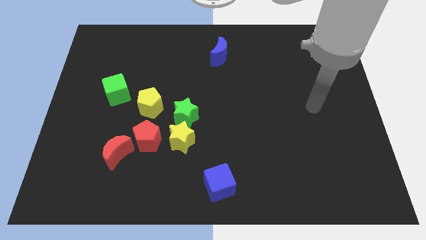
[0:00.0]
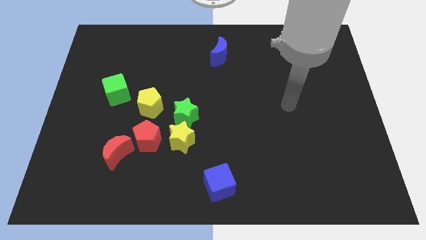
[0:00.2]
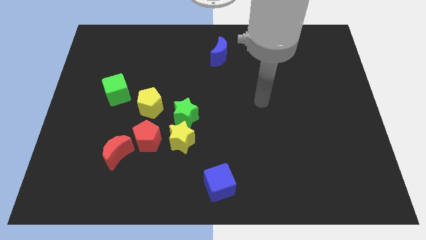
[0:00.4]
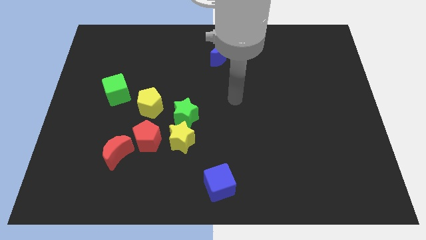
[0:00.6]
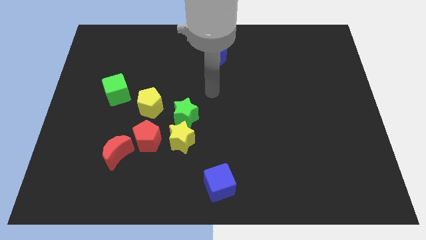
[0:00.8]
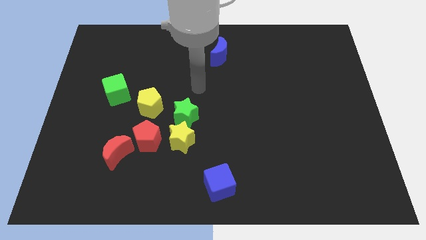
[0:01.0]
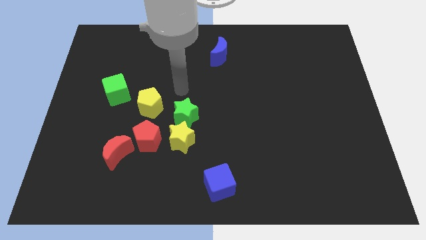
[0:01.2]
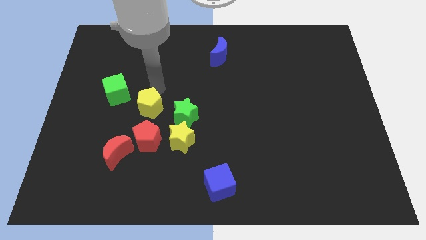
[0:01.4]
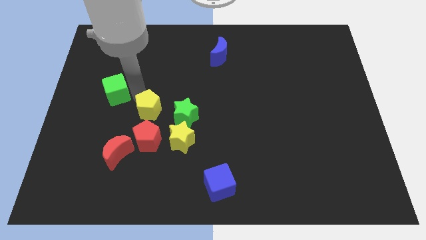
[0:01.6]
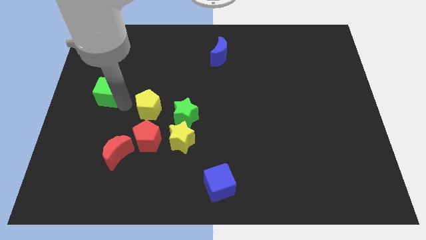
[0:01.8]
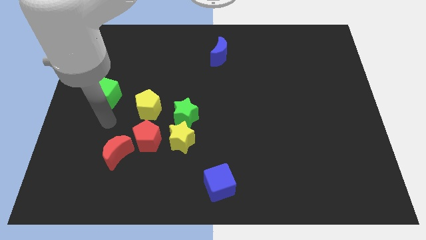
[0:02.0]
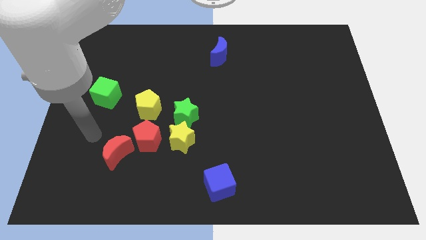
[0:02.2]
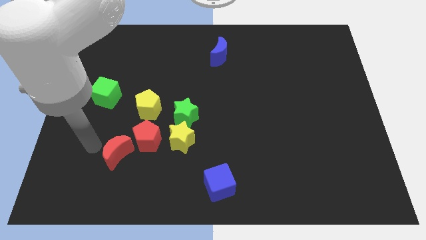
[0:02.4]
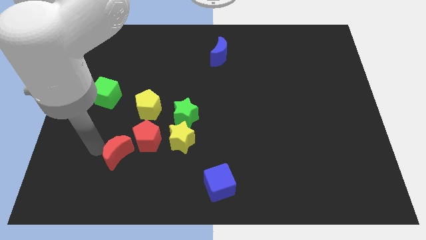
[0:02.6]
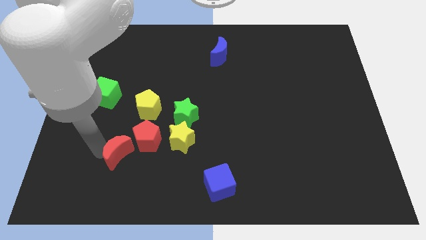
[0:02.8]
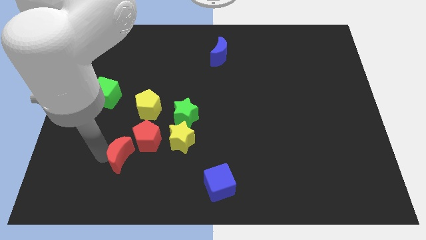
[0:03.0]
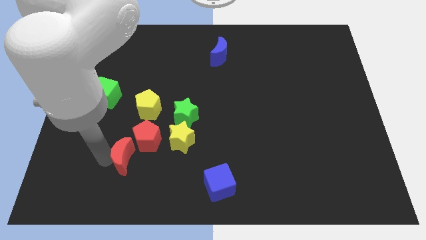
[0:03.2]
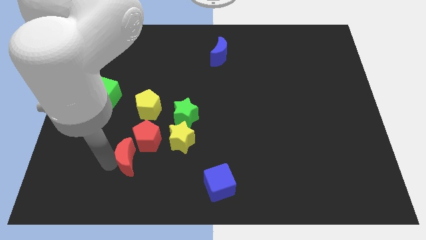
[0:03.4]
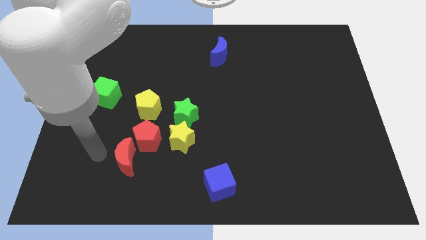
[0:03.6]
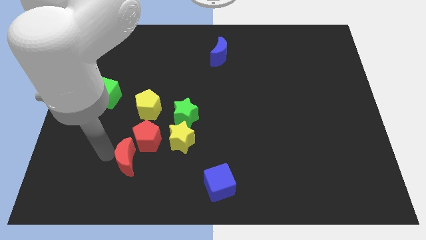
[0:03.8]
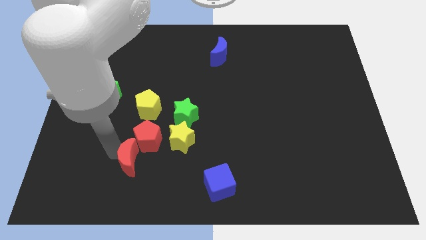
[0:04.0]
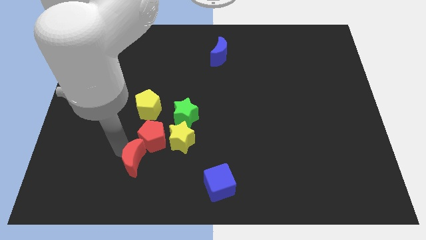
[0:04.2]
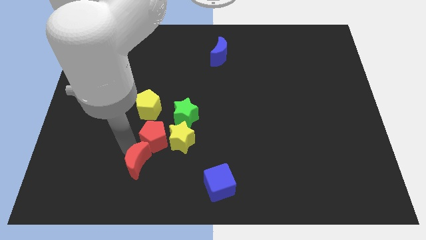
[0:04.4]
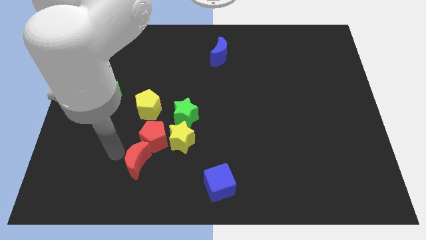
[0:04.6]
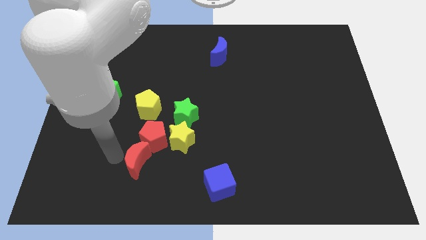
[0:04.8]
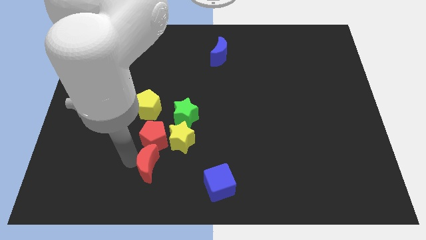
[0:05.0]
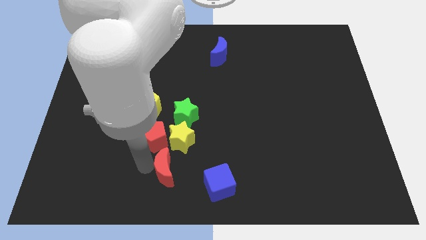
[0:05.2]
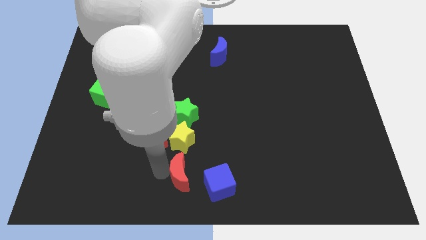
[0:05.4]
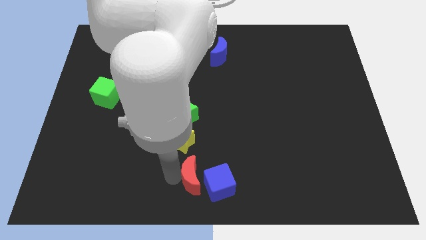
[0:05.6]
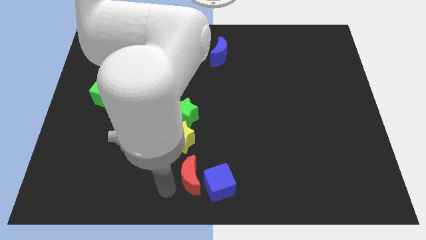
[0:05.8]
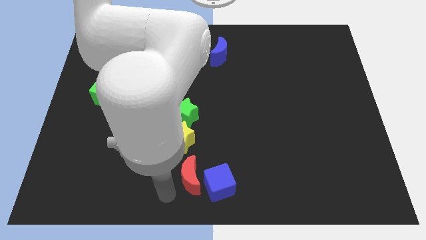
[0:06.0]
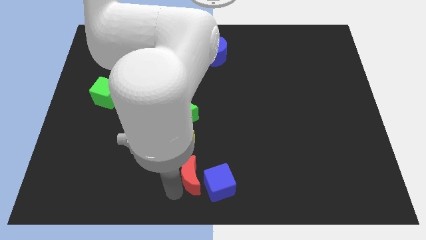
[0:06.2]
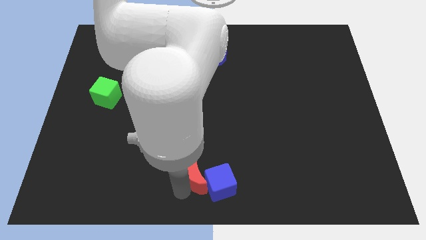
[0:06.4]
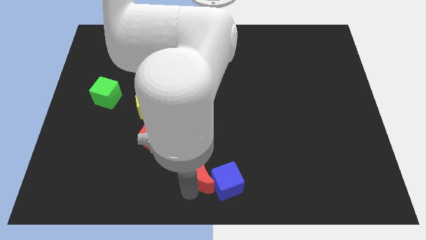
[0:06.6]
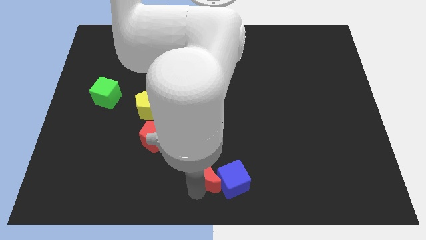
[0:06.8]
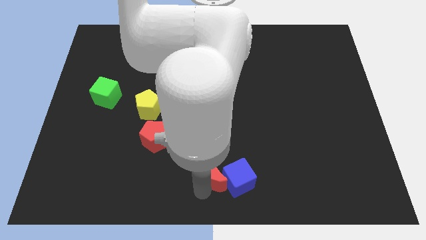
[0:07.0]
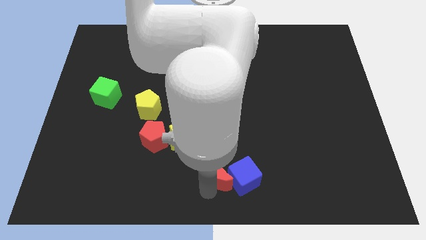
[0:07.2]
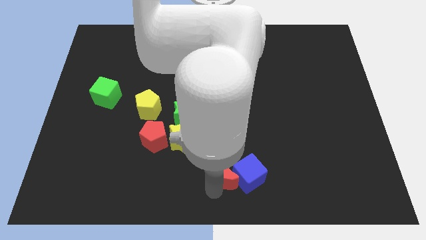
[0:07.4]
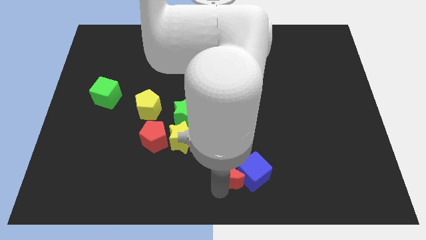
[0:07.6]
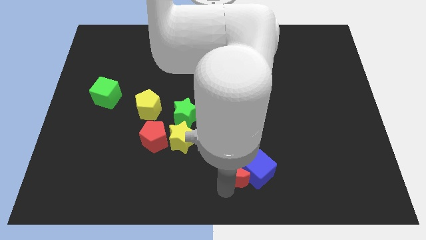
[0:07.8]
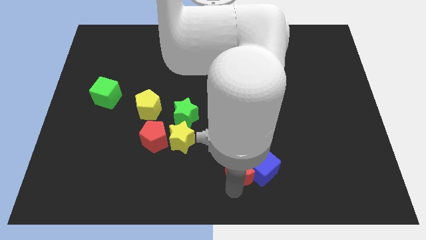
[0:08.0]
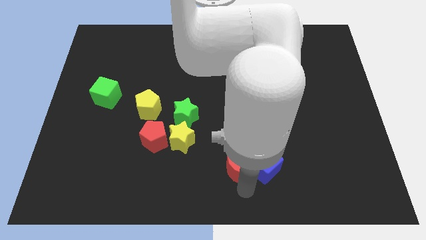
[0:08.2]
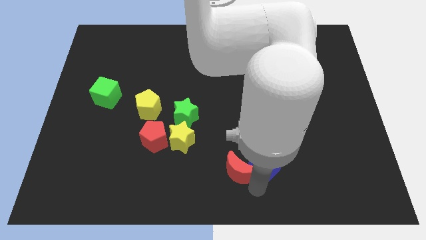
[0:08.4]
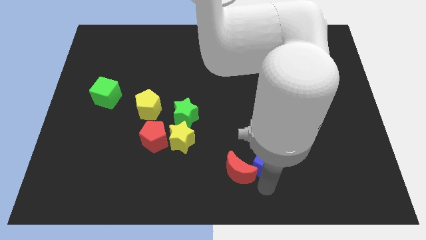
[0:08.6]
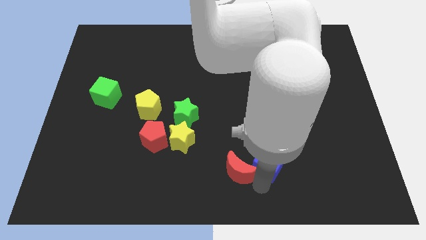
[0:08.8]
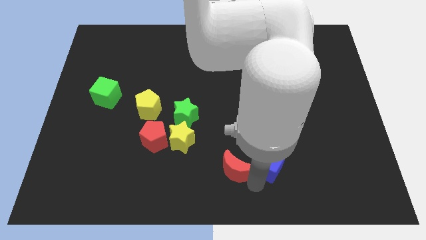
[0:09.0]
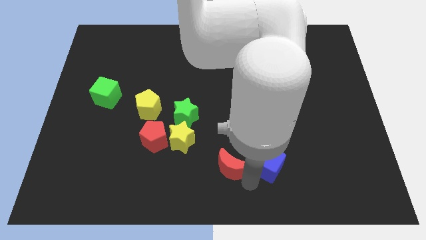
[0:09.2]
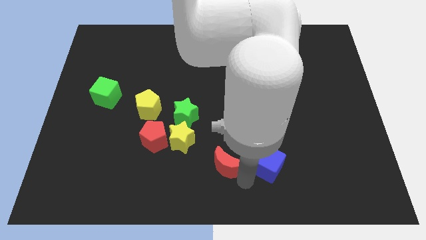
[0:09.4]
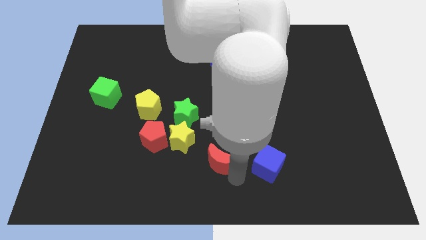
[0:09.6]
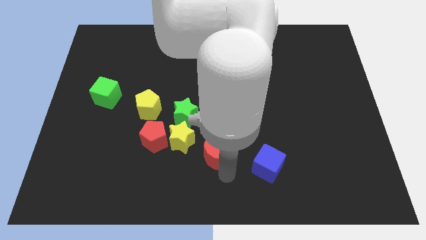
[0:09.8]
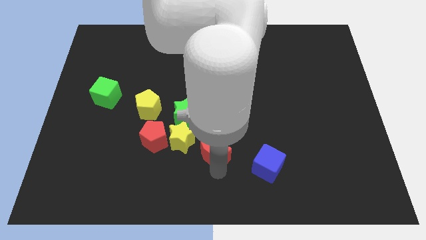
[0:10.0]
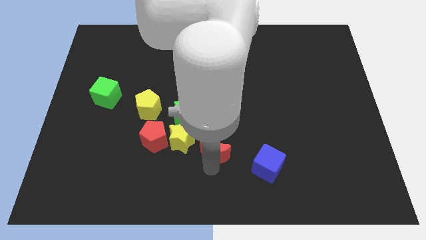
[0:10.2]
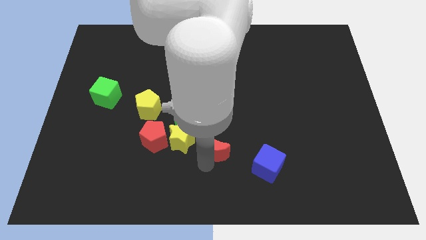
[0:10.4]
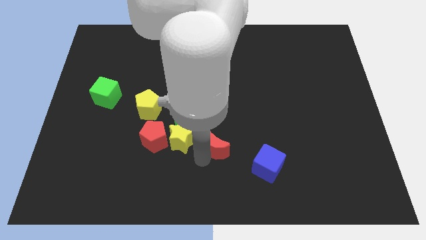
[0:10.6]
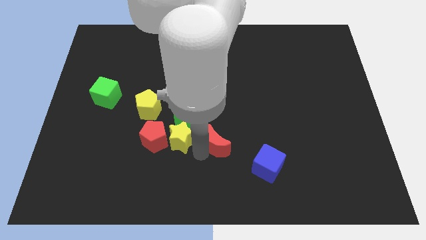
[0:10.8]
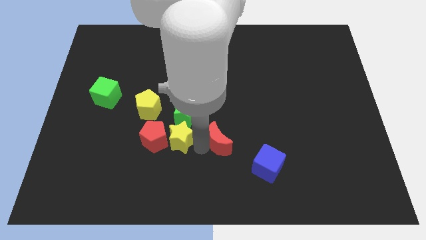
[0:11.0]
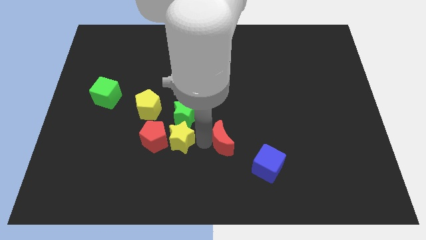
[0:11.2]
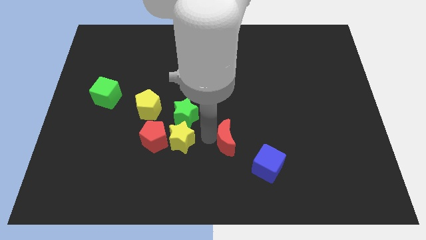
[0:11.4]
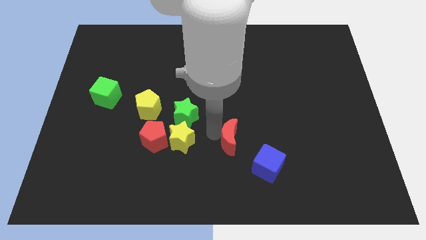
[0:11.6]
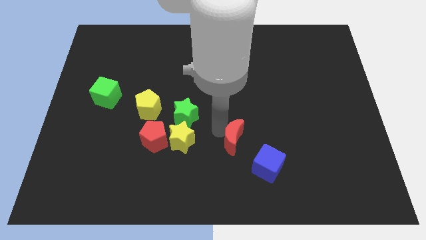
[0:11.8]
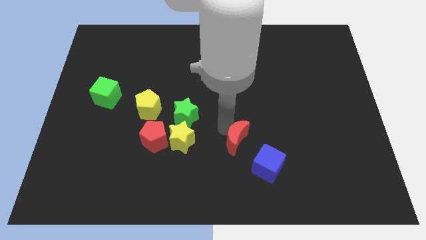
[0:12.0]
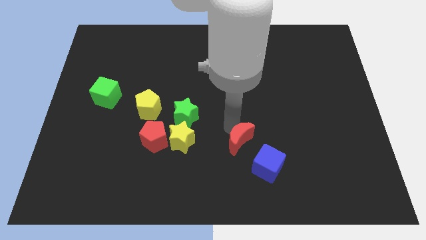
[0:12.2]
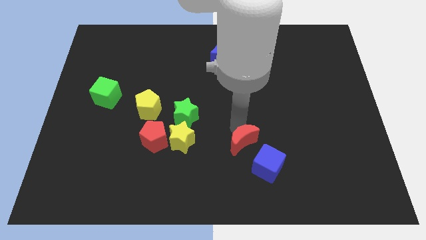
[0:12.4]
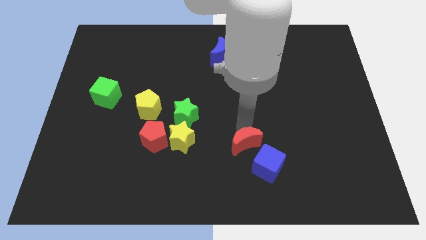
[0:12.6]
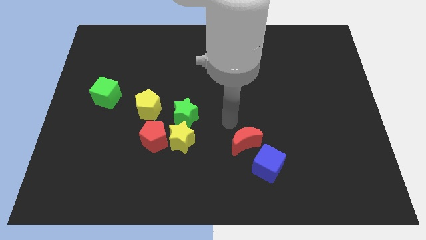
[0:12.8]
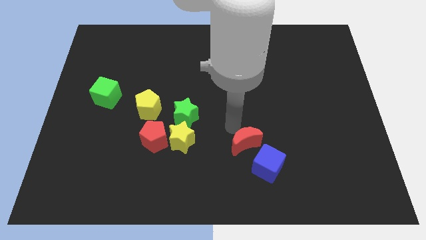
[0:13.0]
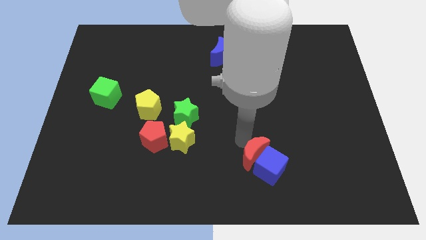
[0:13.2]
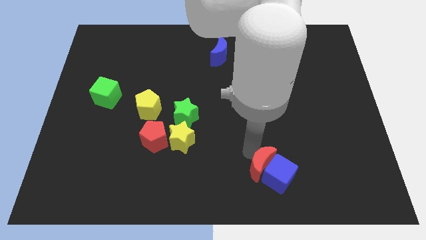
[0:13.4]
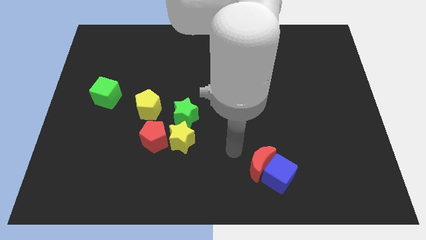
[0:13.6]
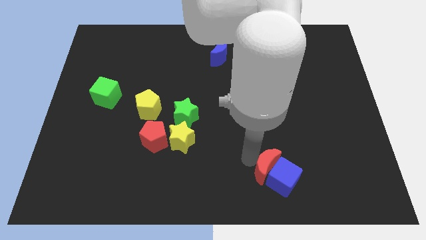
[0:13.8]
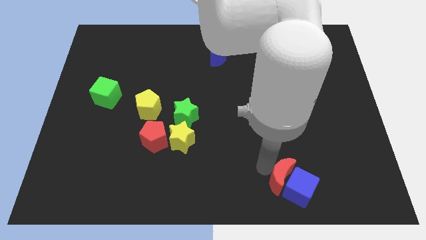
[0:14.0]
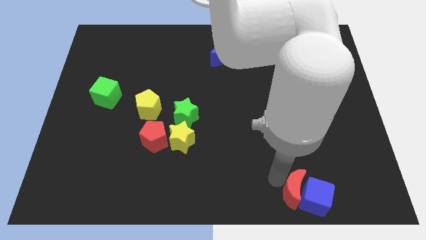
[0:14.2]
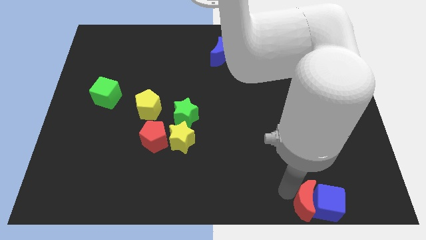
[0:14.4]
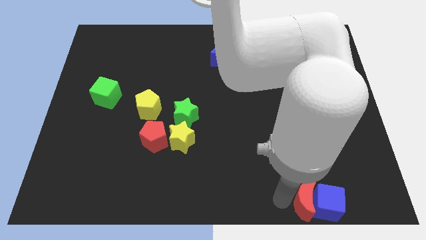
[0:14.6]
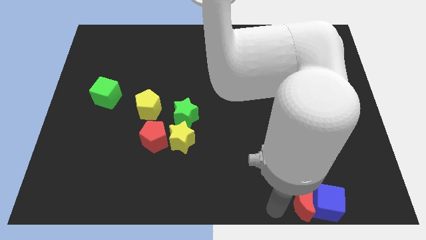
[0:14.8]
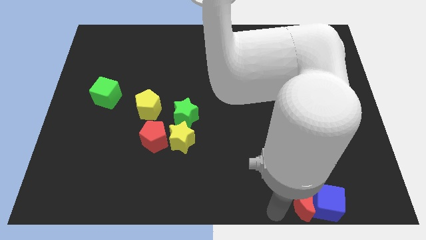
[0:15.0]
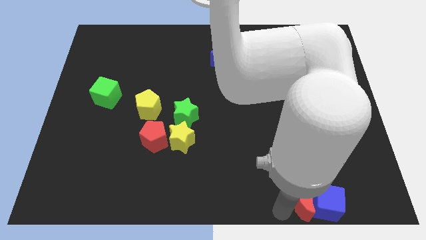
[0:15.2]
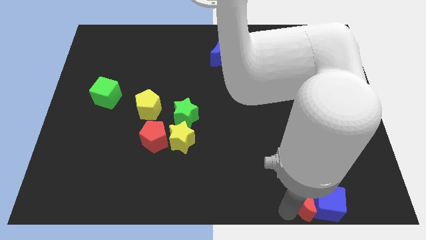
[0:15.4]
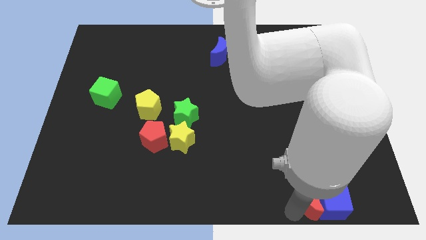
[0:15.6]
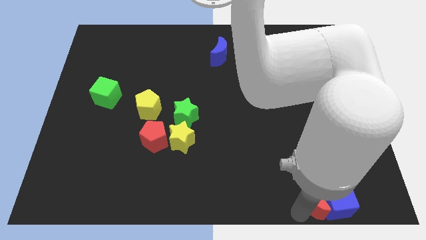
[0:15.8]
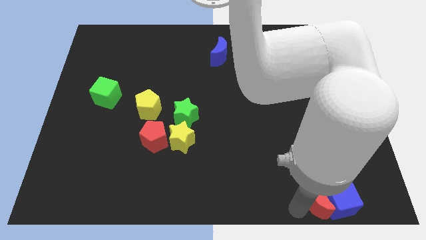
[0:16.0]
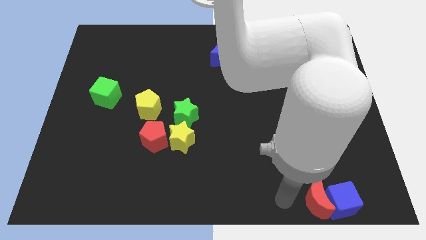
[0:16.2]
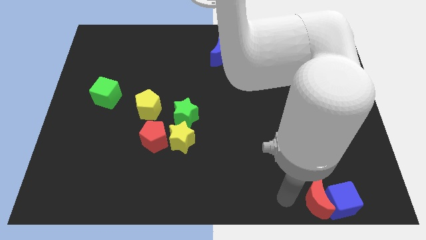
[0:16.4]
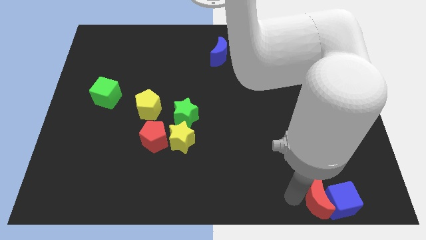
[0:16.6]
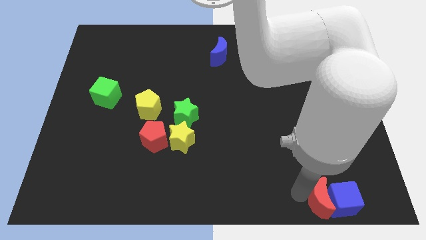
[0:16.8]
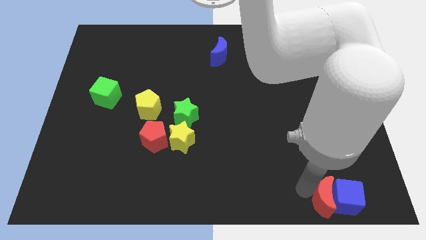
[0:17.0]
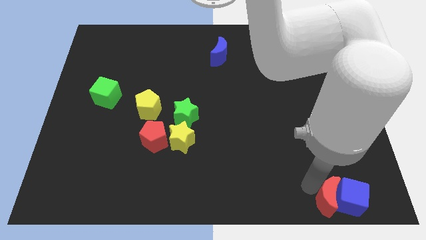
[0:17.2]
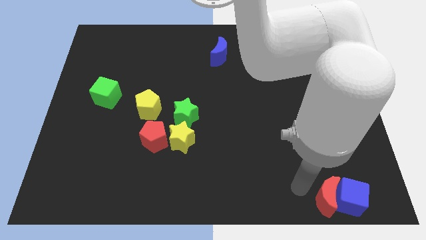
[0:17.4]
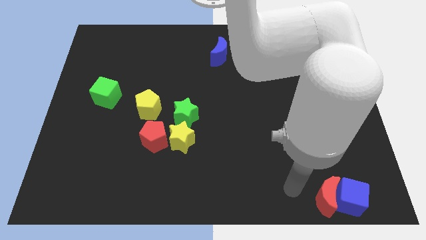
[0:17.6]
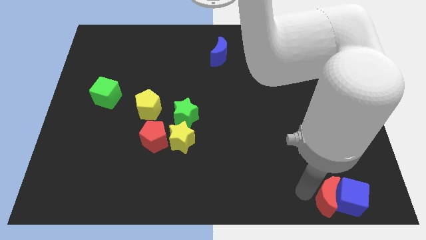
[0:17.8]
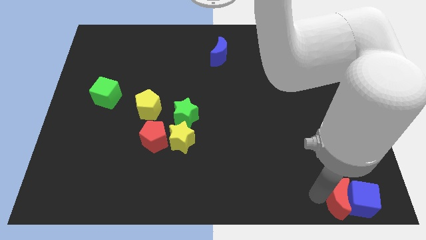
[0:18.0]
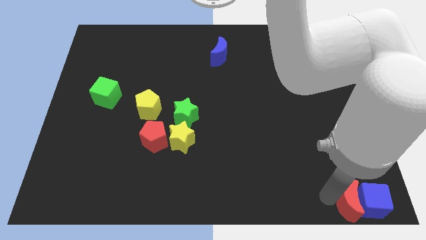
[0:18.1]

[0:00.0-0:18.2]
move the red moon to the bottom right corner
